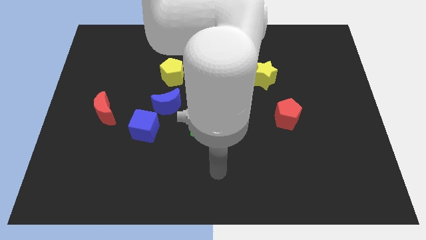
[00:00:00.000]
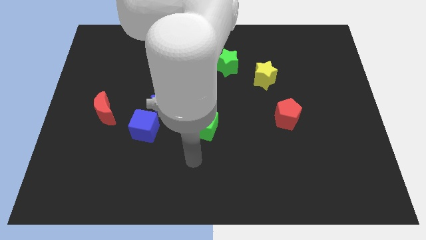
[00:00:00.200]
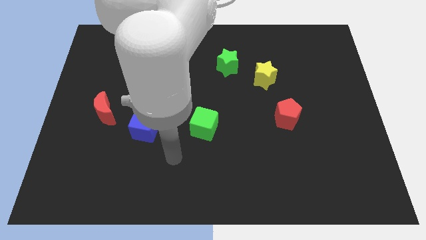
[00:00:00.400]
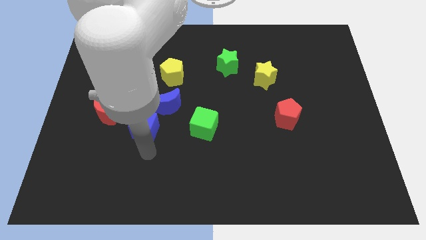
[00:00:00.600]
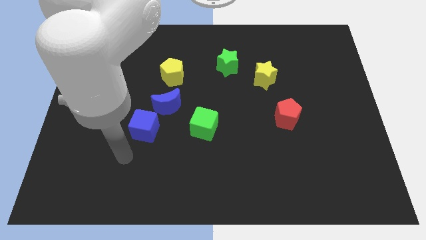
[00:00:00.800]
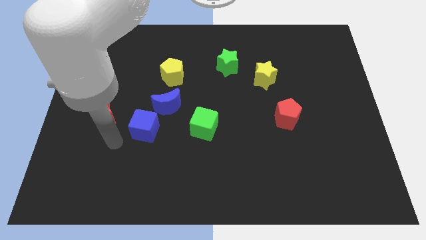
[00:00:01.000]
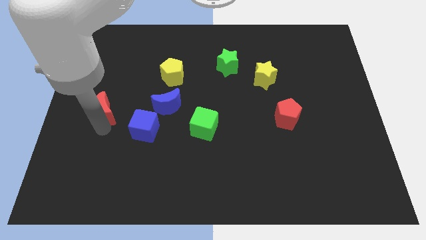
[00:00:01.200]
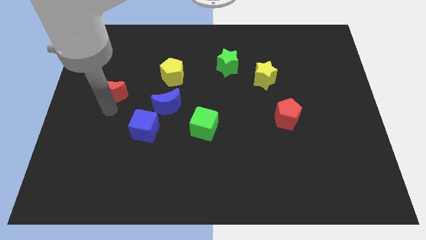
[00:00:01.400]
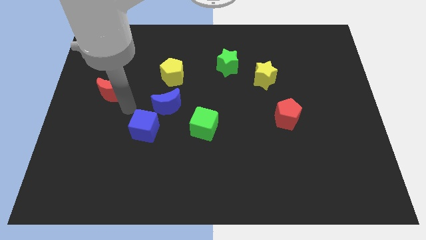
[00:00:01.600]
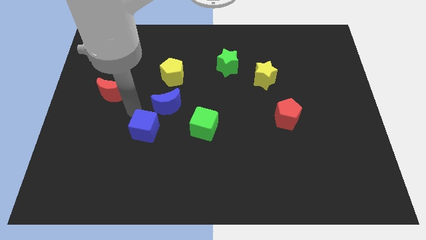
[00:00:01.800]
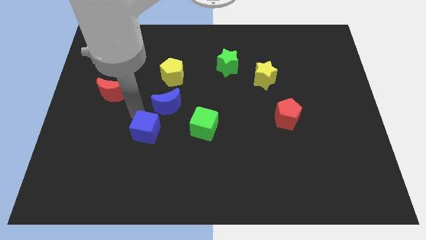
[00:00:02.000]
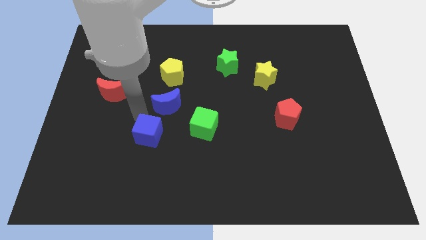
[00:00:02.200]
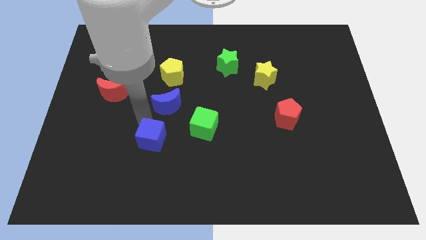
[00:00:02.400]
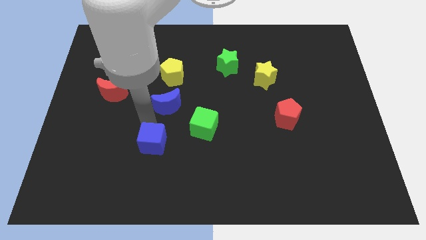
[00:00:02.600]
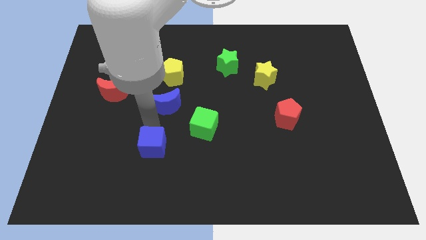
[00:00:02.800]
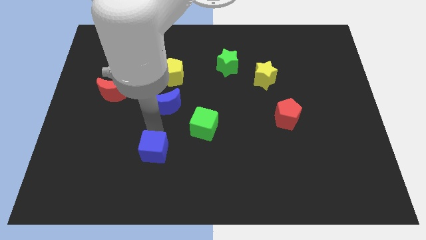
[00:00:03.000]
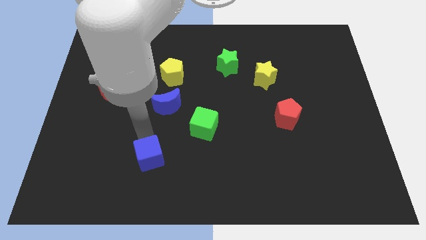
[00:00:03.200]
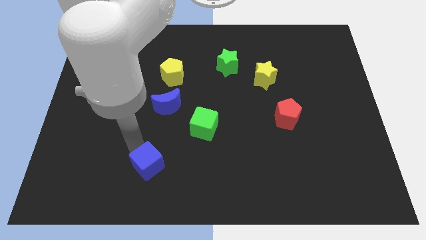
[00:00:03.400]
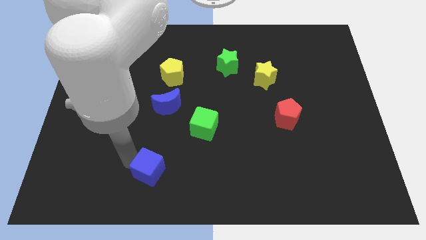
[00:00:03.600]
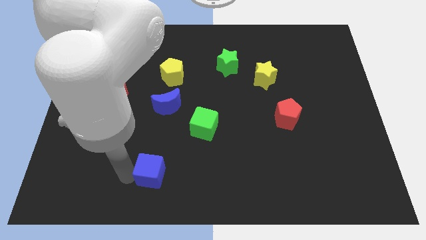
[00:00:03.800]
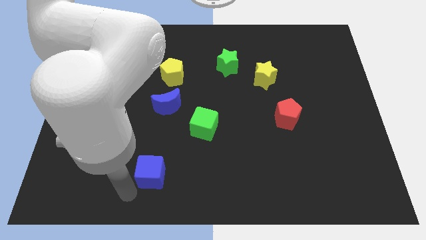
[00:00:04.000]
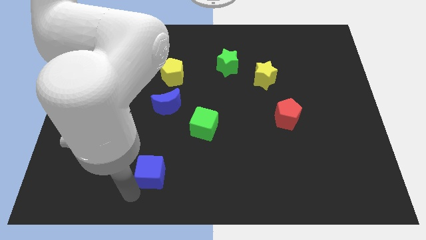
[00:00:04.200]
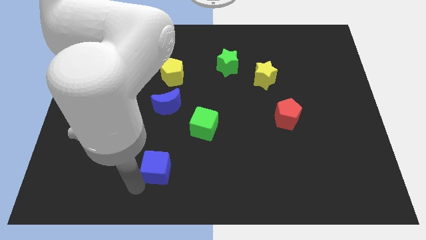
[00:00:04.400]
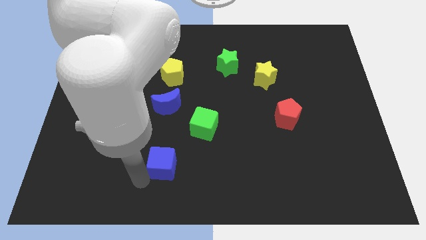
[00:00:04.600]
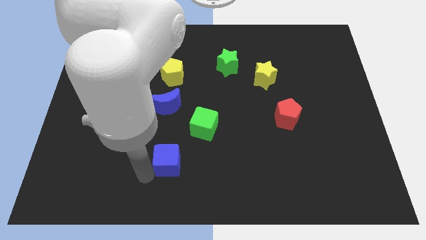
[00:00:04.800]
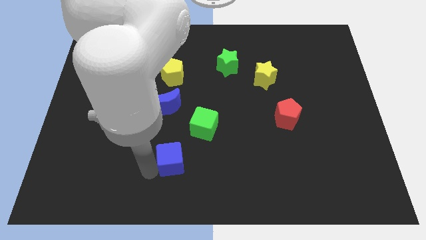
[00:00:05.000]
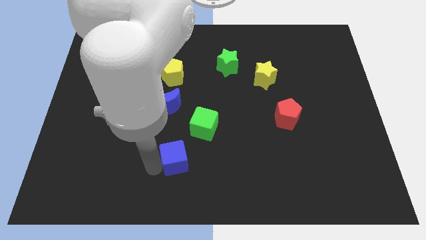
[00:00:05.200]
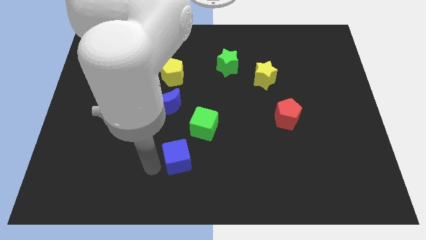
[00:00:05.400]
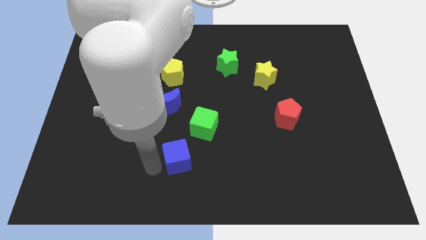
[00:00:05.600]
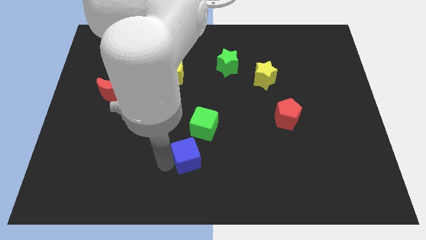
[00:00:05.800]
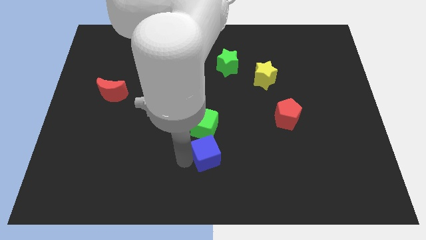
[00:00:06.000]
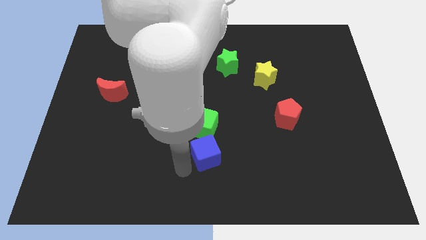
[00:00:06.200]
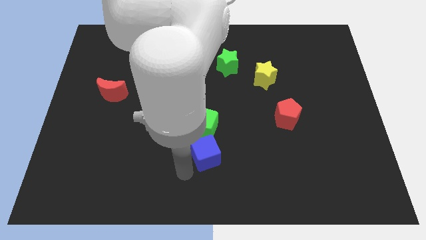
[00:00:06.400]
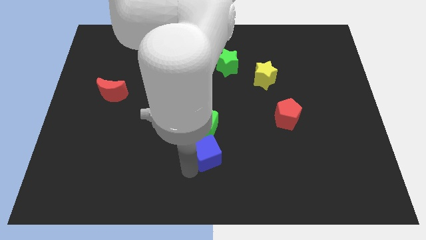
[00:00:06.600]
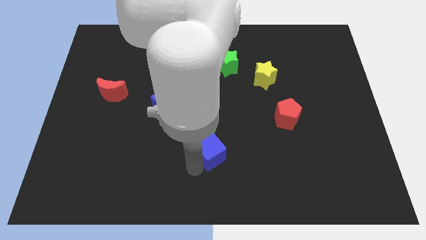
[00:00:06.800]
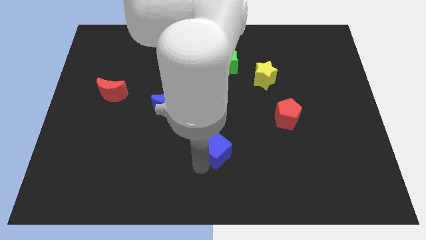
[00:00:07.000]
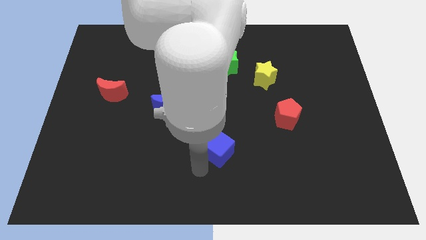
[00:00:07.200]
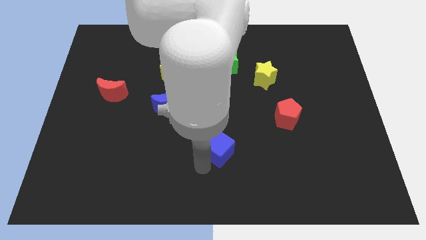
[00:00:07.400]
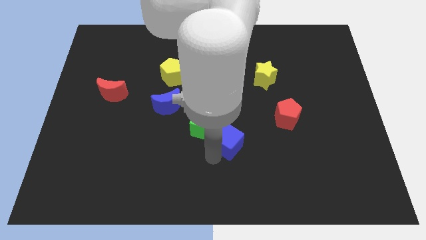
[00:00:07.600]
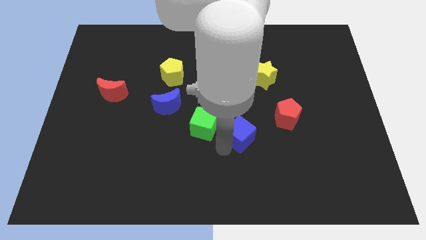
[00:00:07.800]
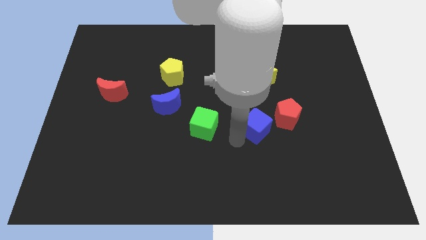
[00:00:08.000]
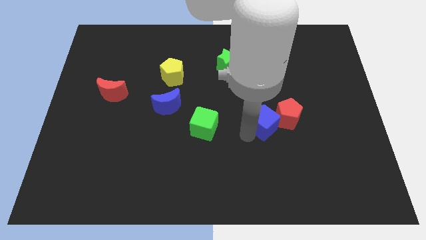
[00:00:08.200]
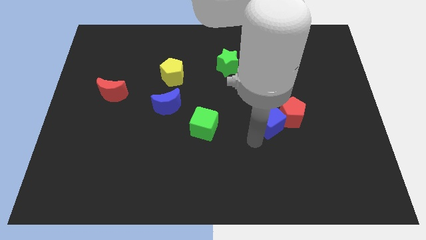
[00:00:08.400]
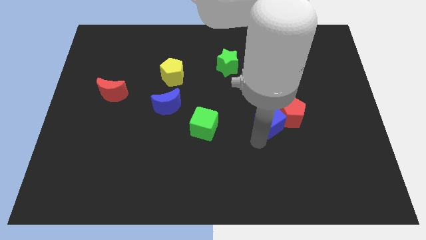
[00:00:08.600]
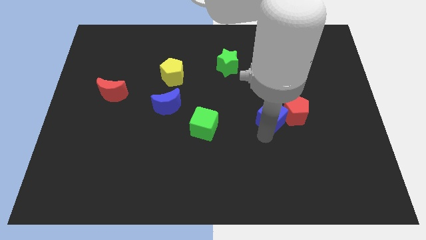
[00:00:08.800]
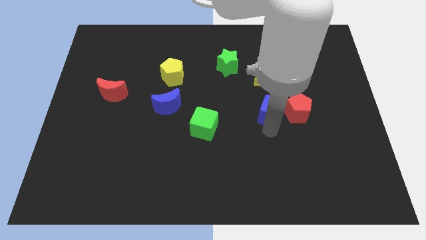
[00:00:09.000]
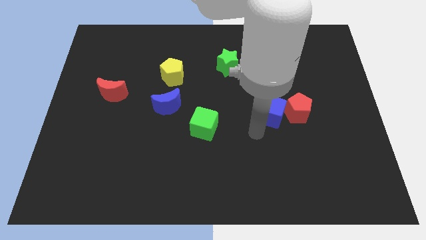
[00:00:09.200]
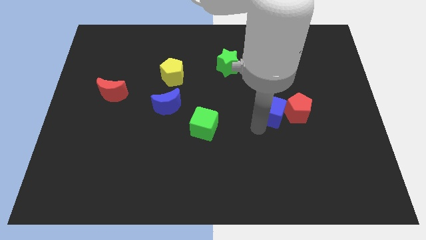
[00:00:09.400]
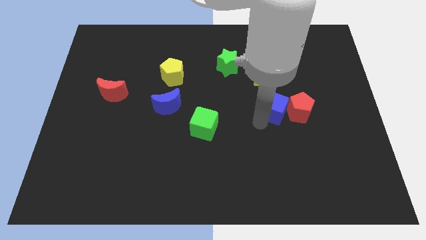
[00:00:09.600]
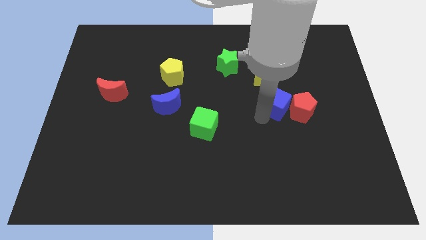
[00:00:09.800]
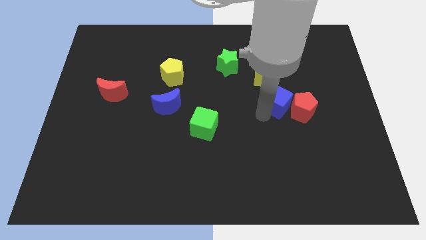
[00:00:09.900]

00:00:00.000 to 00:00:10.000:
push the blue cube to the bottom right side of the yellow star

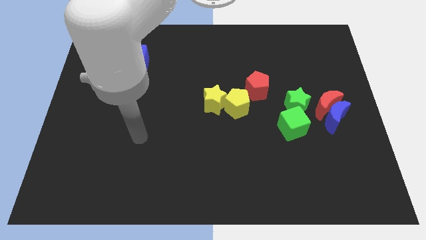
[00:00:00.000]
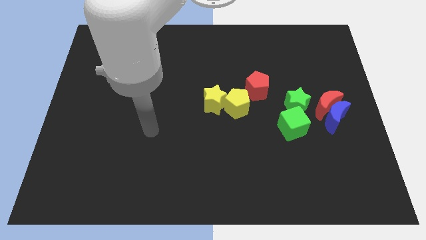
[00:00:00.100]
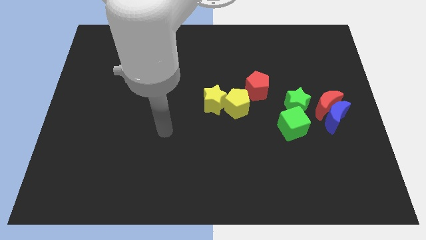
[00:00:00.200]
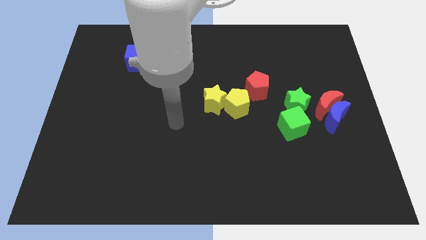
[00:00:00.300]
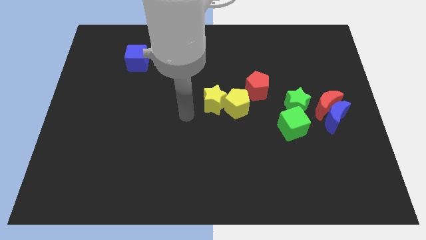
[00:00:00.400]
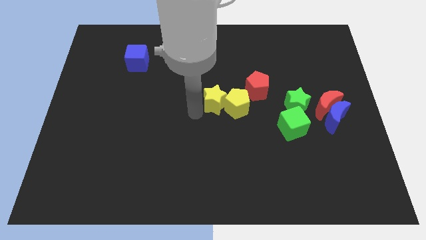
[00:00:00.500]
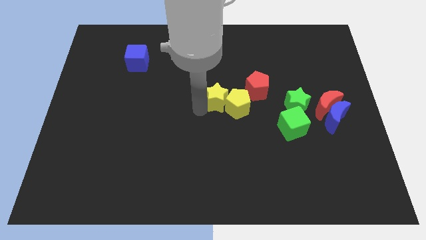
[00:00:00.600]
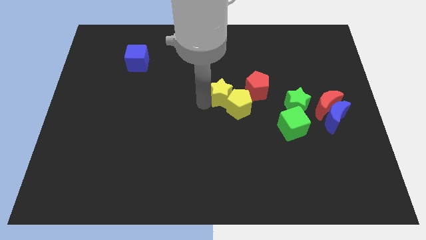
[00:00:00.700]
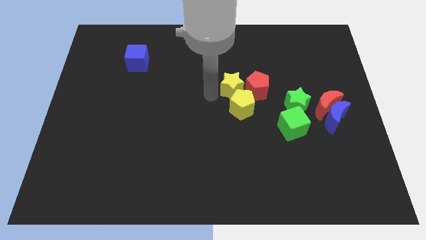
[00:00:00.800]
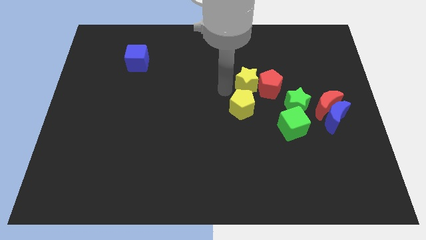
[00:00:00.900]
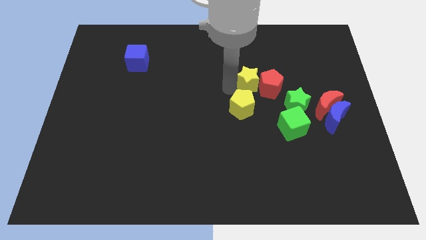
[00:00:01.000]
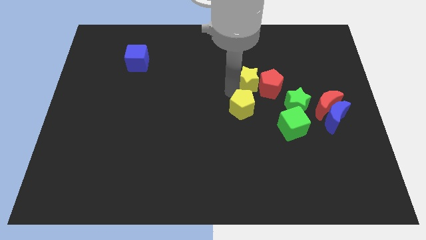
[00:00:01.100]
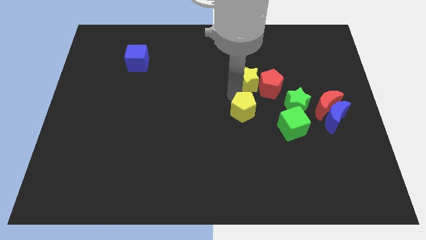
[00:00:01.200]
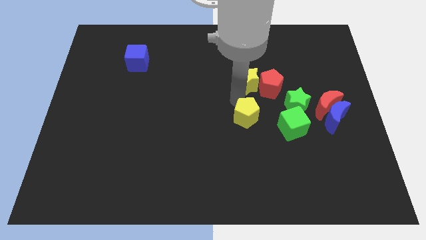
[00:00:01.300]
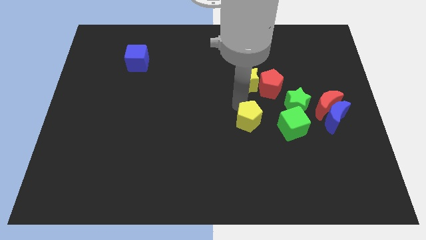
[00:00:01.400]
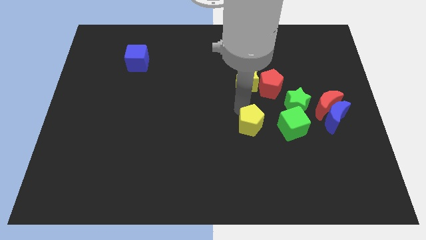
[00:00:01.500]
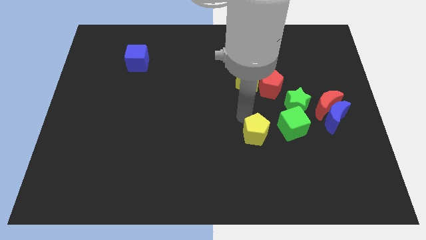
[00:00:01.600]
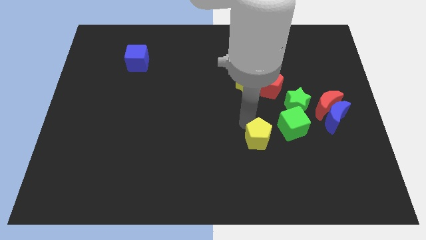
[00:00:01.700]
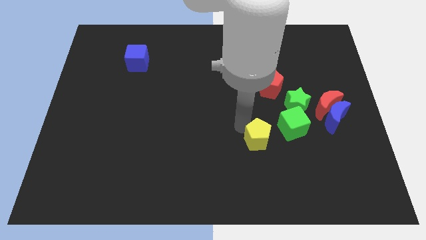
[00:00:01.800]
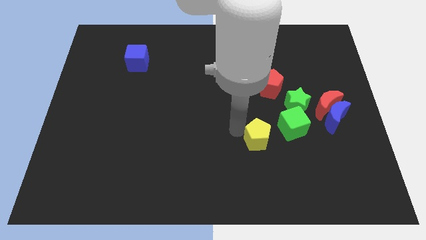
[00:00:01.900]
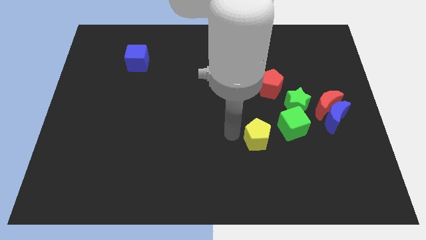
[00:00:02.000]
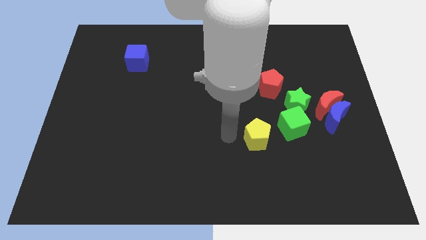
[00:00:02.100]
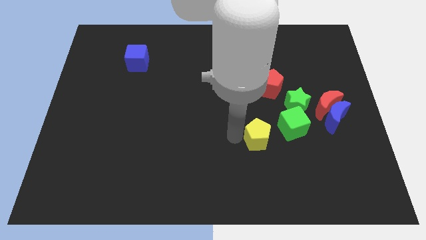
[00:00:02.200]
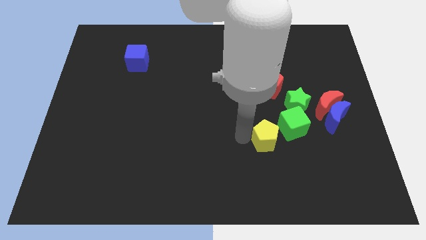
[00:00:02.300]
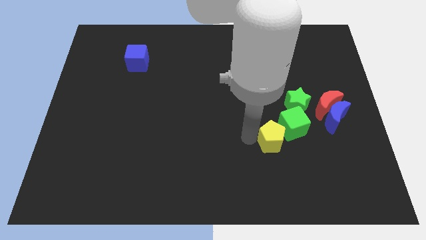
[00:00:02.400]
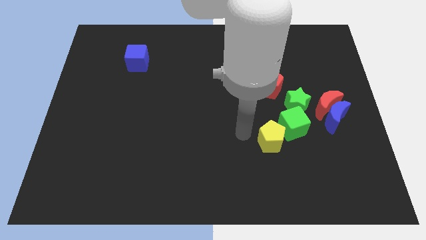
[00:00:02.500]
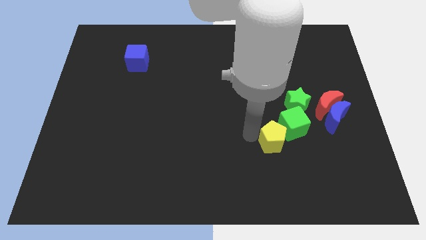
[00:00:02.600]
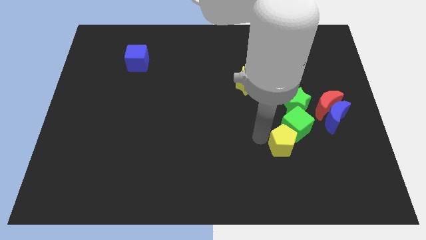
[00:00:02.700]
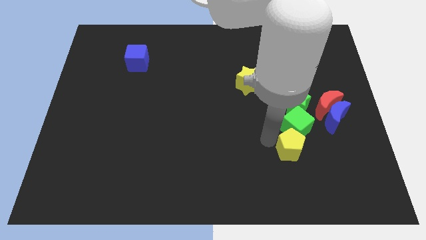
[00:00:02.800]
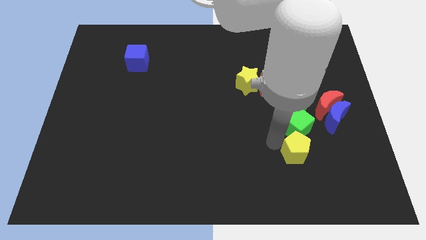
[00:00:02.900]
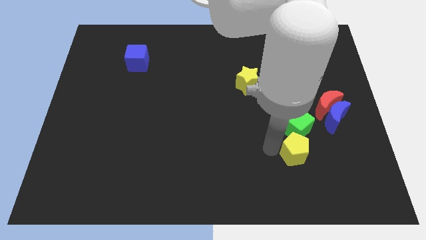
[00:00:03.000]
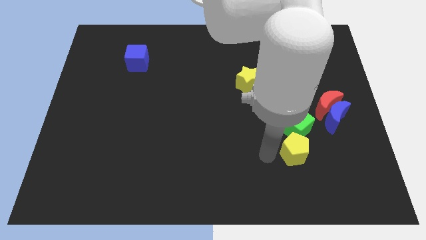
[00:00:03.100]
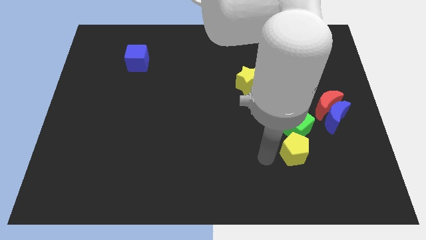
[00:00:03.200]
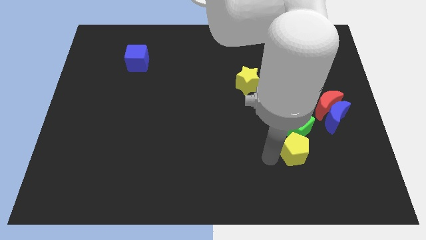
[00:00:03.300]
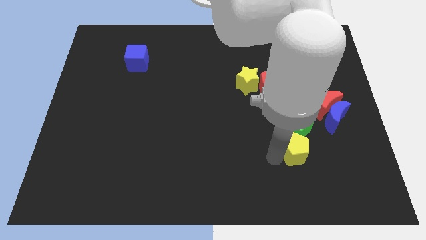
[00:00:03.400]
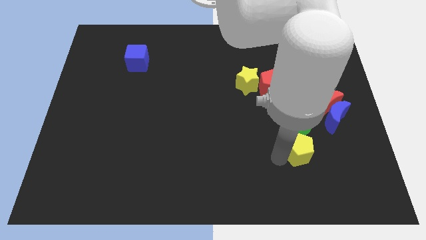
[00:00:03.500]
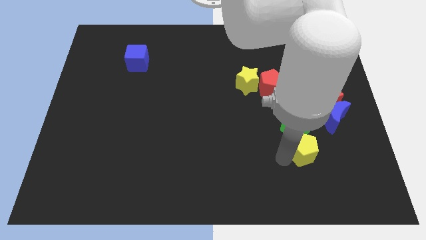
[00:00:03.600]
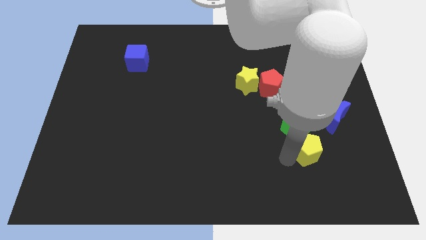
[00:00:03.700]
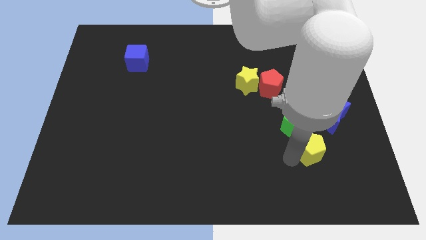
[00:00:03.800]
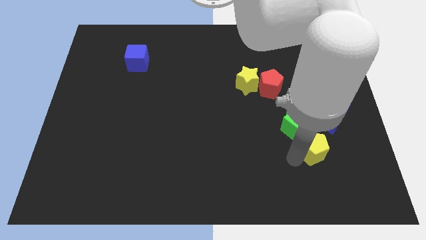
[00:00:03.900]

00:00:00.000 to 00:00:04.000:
put the yellow pentagon below the red moon
